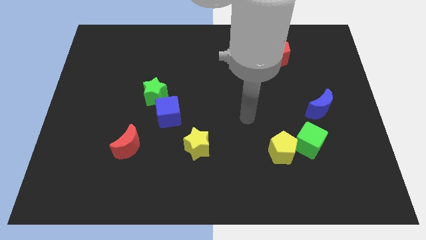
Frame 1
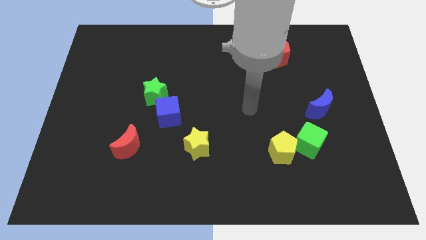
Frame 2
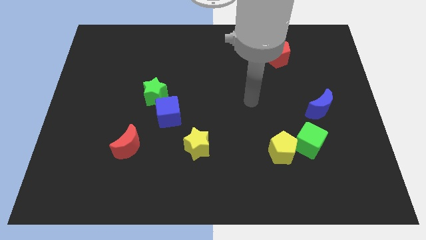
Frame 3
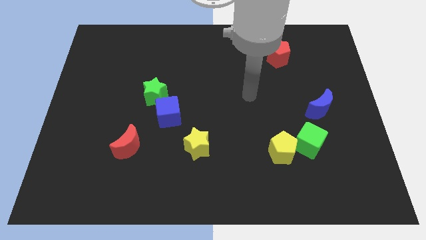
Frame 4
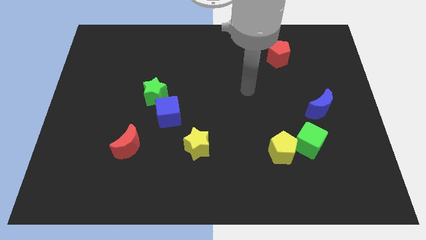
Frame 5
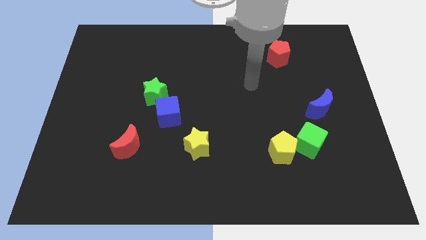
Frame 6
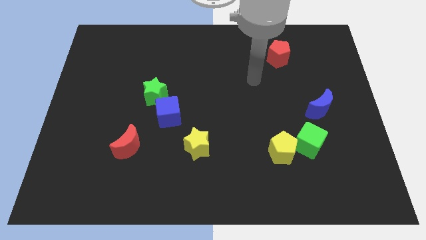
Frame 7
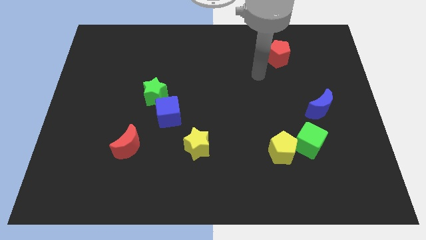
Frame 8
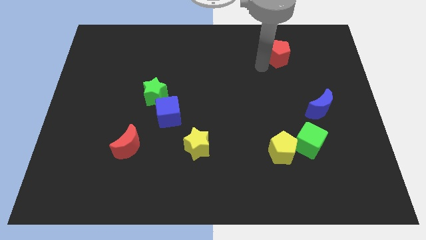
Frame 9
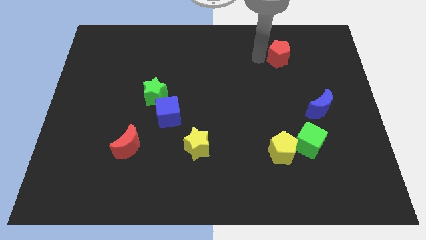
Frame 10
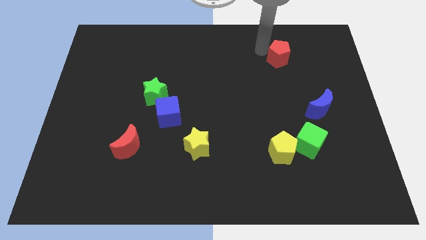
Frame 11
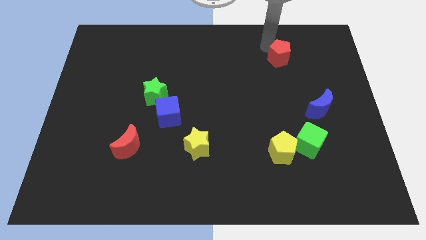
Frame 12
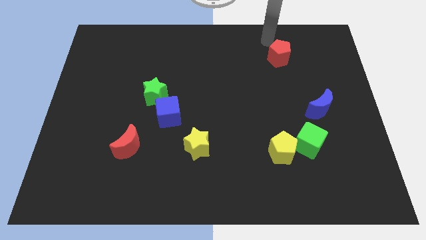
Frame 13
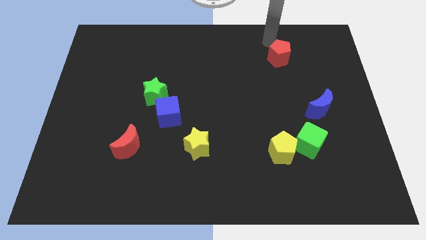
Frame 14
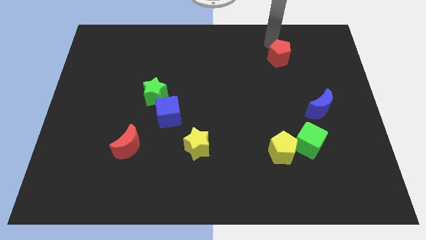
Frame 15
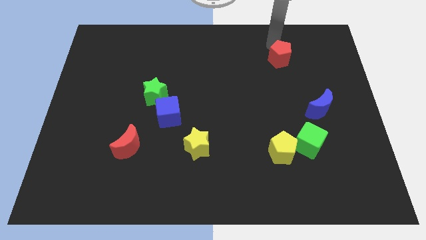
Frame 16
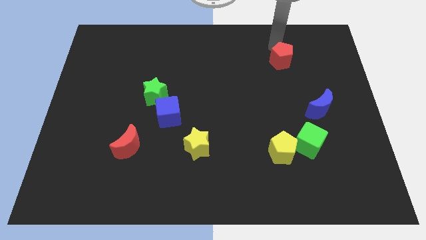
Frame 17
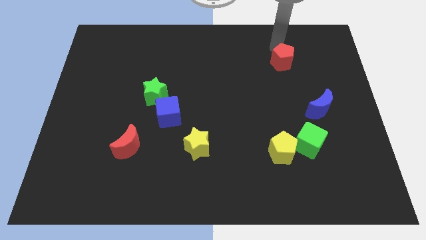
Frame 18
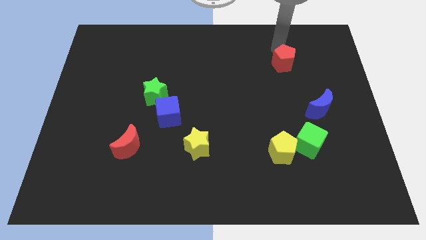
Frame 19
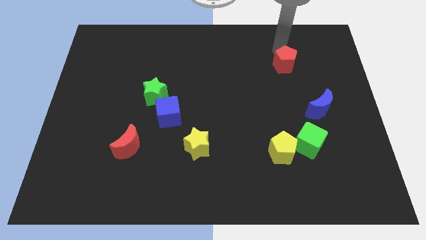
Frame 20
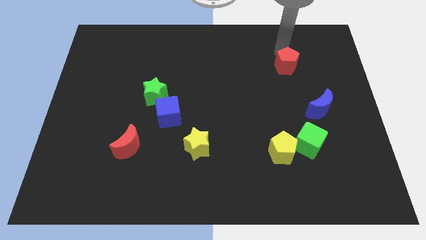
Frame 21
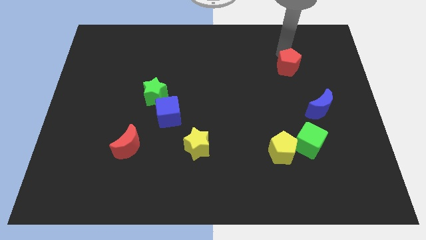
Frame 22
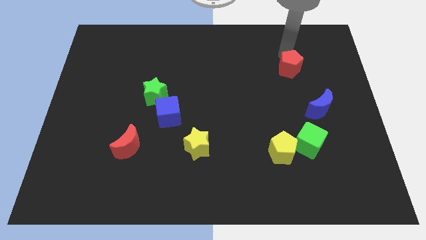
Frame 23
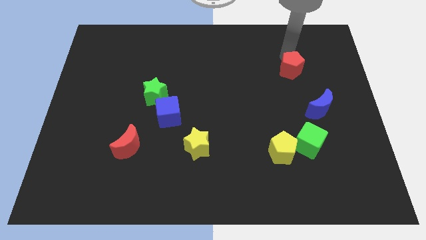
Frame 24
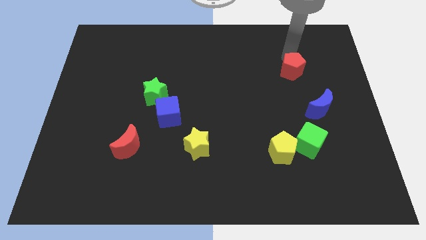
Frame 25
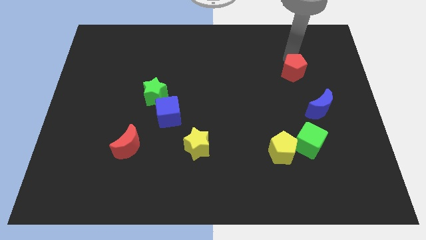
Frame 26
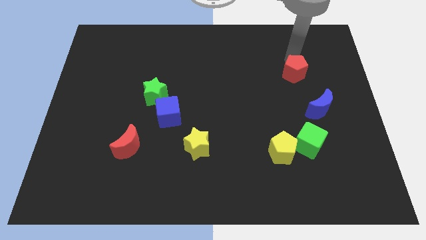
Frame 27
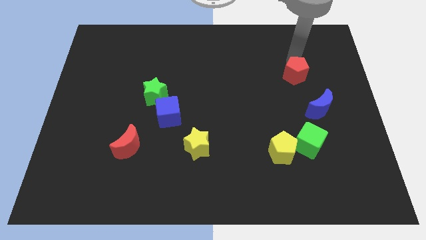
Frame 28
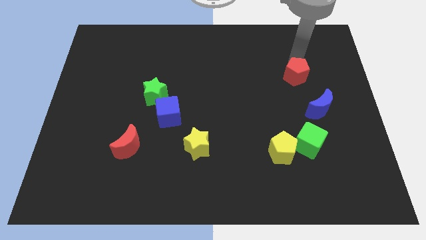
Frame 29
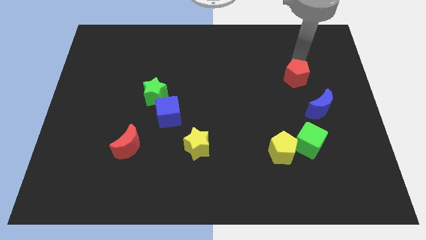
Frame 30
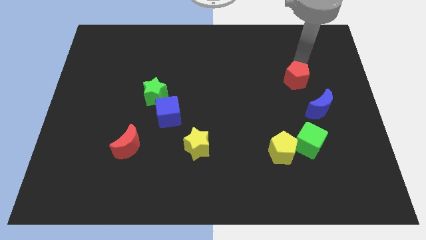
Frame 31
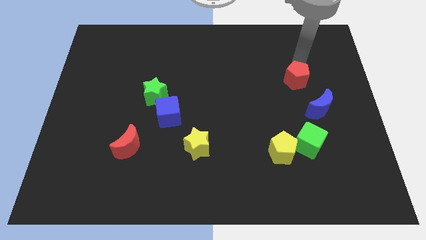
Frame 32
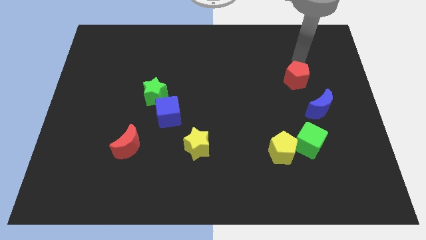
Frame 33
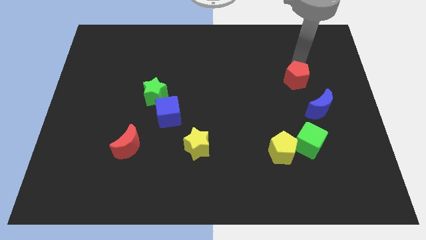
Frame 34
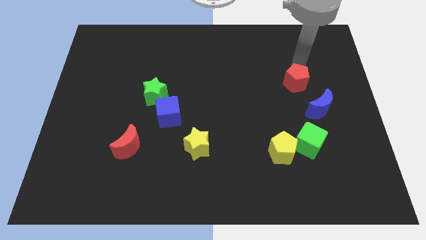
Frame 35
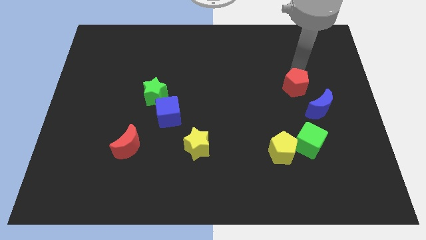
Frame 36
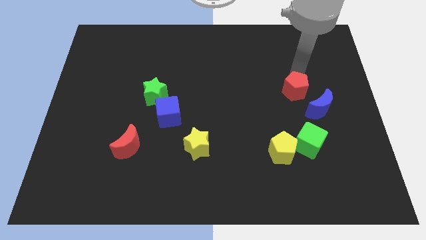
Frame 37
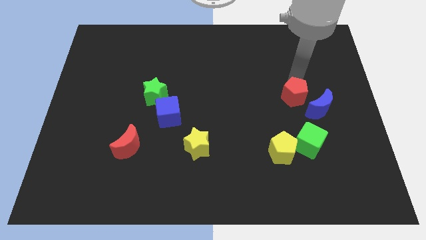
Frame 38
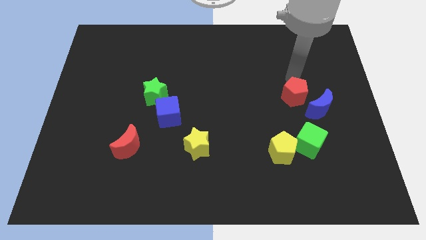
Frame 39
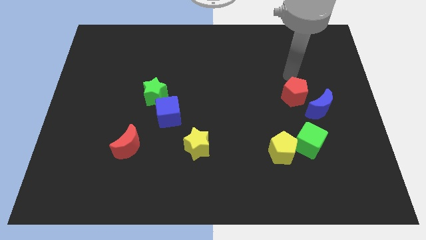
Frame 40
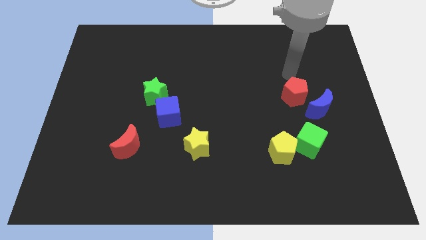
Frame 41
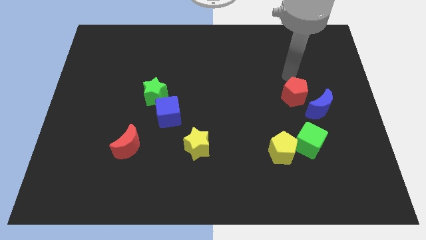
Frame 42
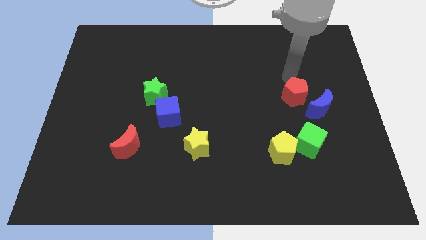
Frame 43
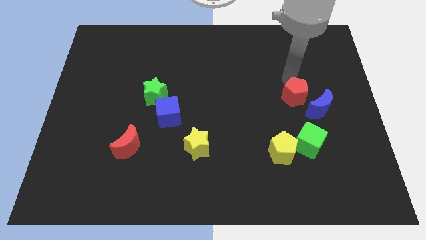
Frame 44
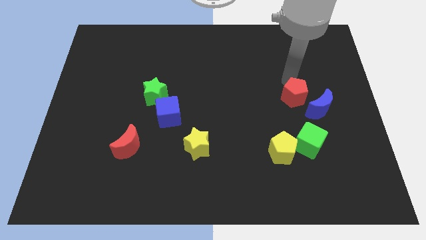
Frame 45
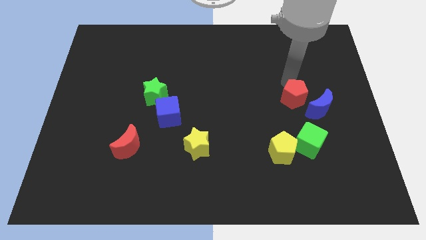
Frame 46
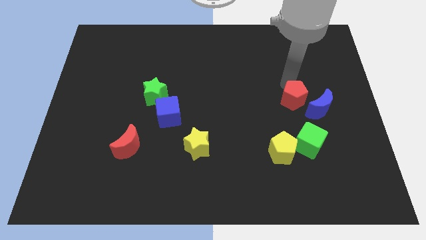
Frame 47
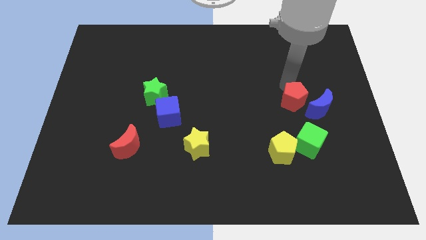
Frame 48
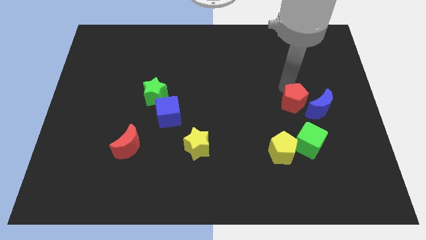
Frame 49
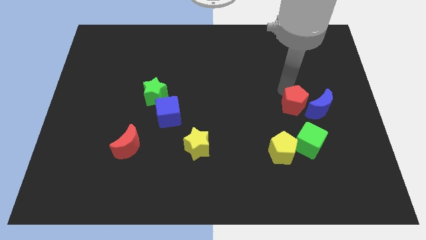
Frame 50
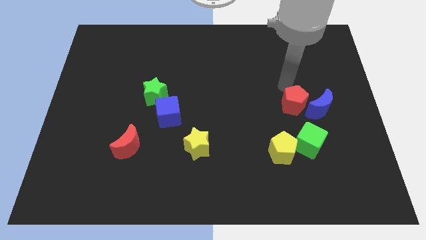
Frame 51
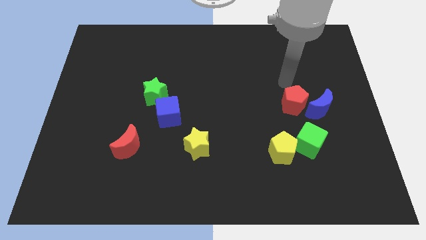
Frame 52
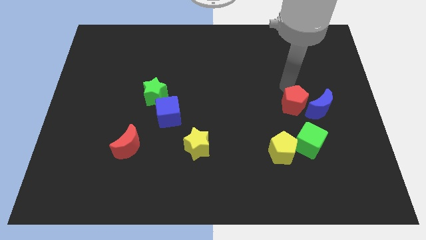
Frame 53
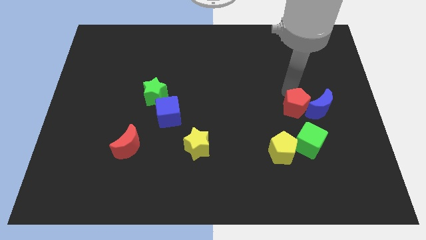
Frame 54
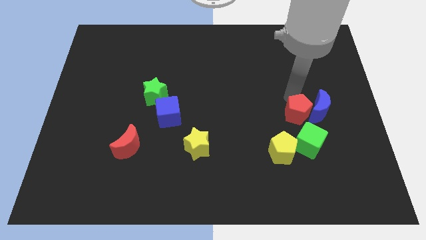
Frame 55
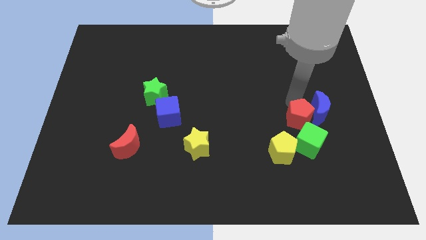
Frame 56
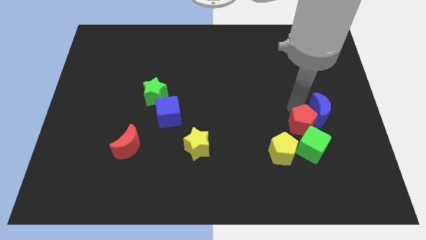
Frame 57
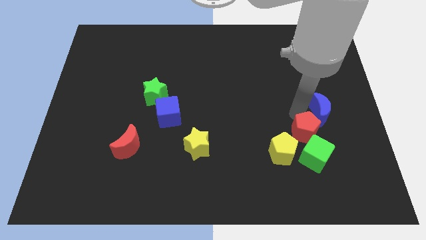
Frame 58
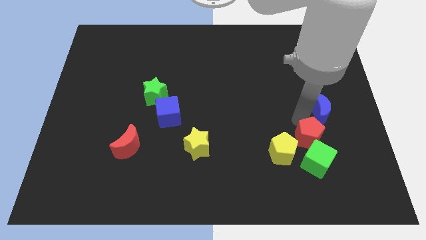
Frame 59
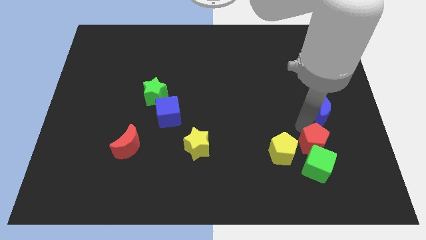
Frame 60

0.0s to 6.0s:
put the red pentagon close to the green cube
